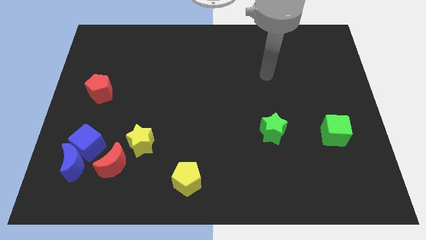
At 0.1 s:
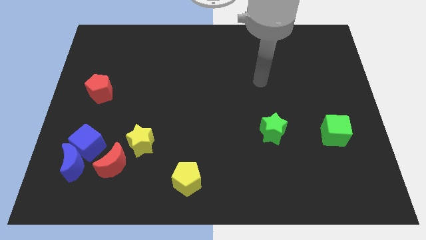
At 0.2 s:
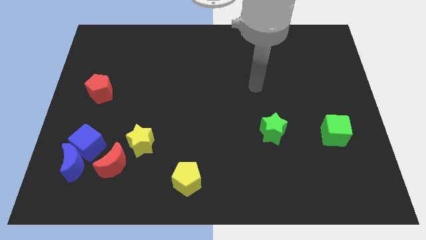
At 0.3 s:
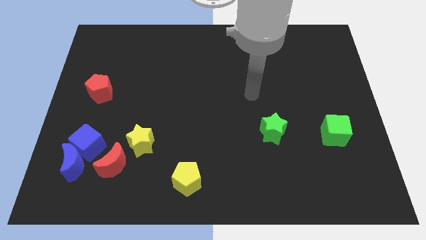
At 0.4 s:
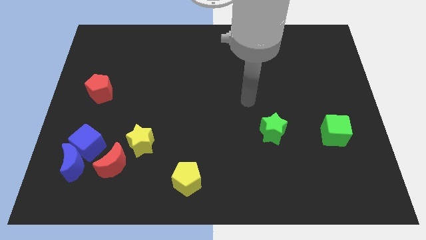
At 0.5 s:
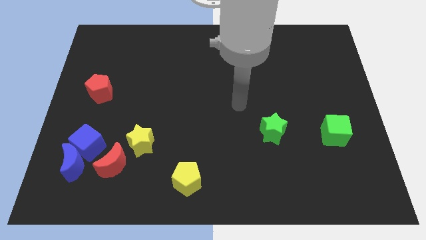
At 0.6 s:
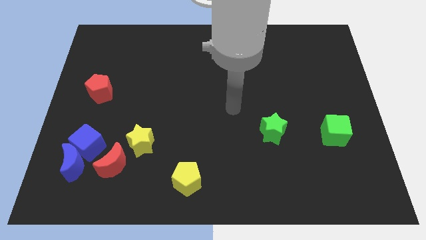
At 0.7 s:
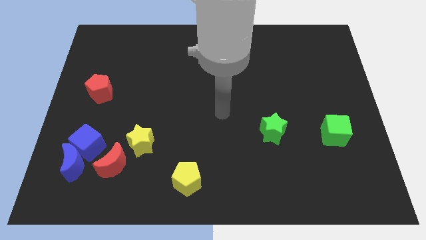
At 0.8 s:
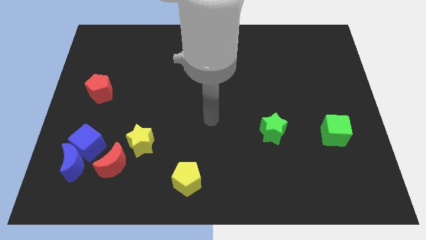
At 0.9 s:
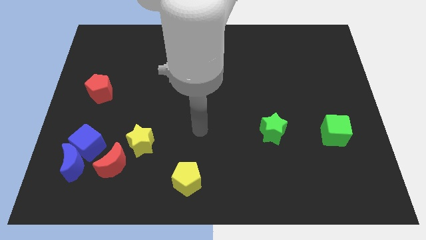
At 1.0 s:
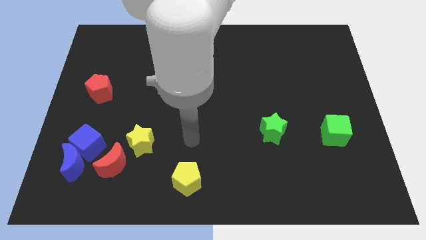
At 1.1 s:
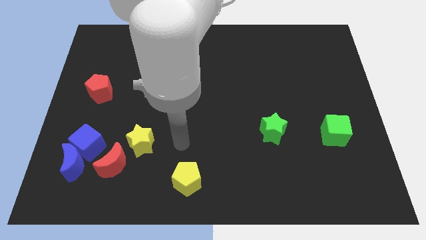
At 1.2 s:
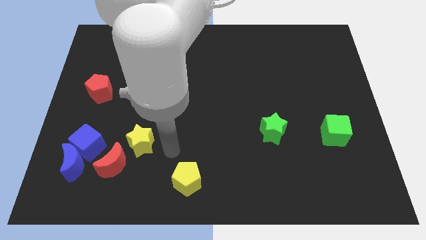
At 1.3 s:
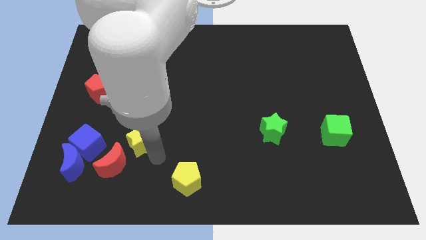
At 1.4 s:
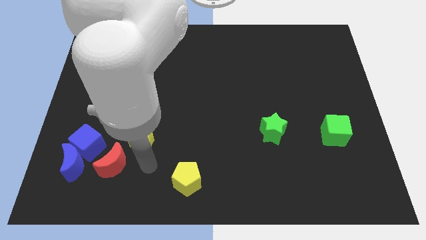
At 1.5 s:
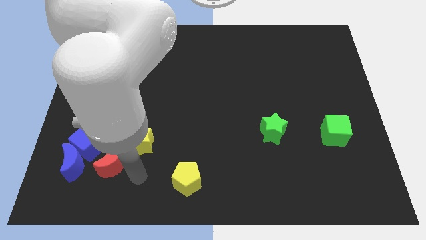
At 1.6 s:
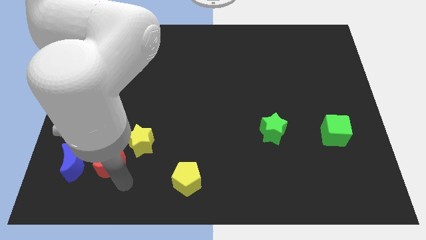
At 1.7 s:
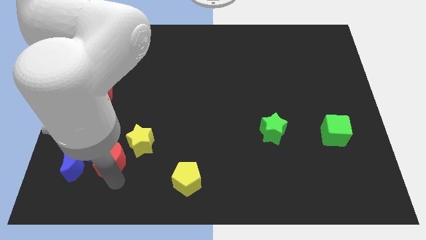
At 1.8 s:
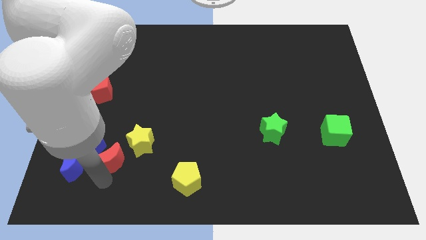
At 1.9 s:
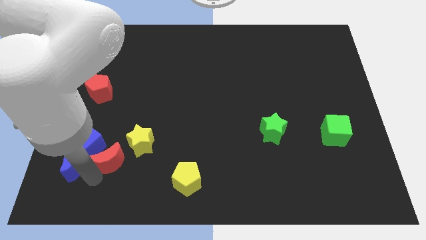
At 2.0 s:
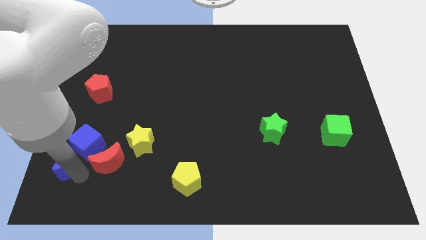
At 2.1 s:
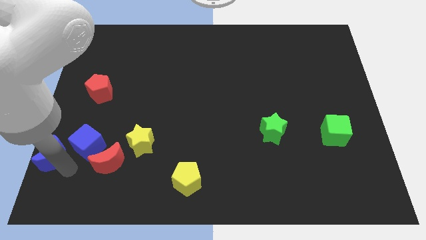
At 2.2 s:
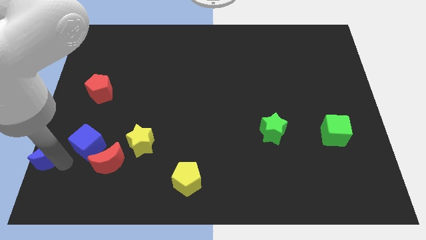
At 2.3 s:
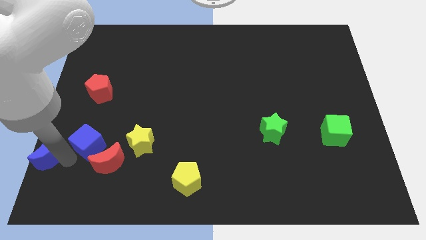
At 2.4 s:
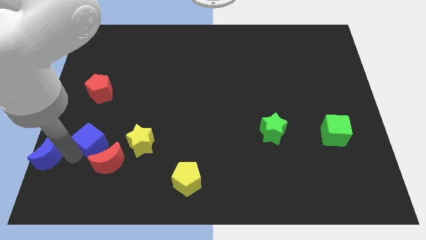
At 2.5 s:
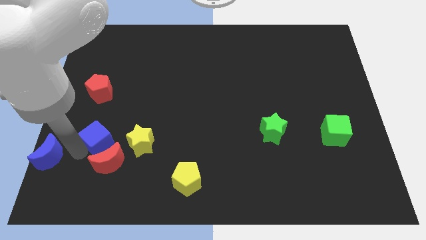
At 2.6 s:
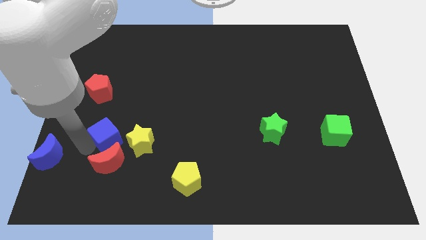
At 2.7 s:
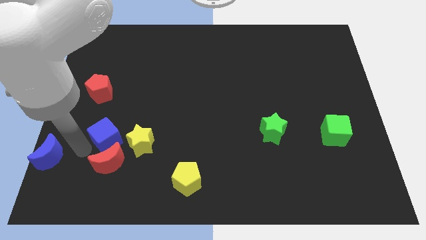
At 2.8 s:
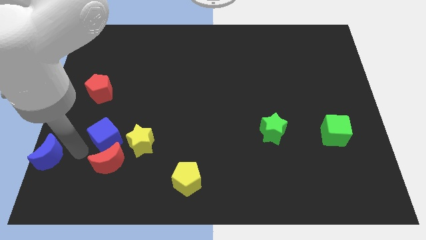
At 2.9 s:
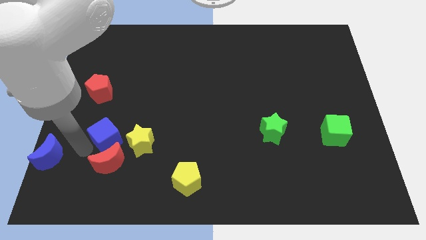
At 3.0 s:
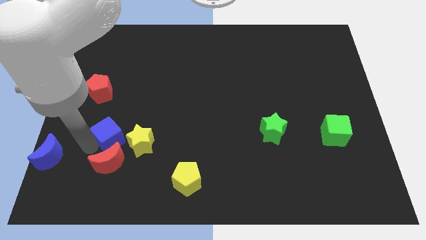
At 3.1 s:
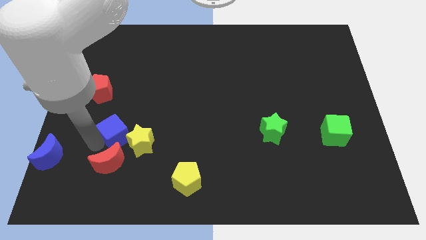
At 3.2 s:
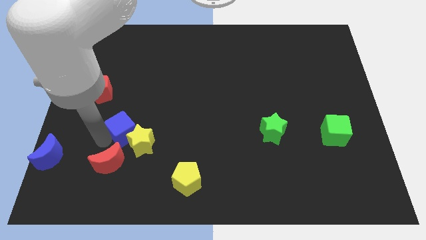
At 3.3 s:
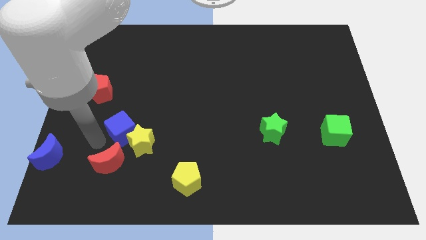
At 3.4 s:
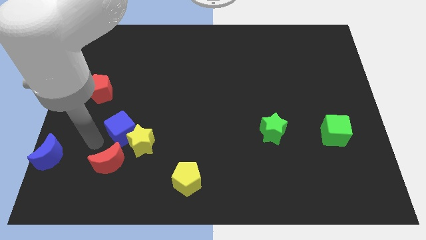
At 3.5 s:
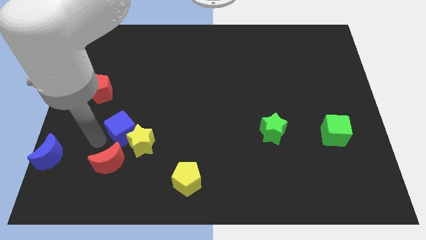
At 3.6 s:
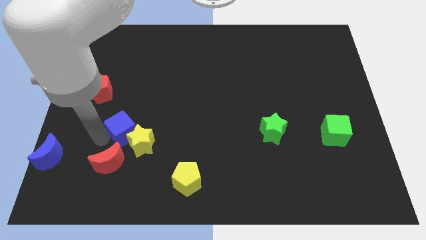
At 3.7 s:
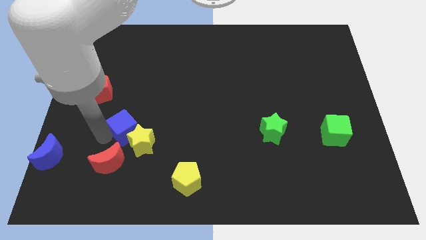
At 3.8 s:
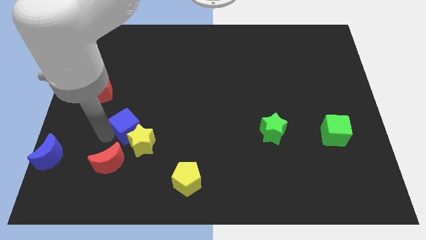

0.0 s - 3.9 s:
slightly slide the blue cube to the right

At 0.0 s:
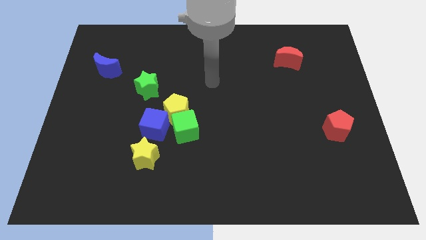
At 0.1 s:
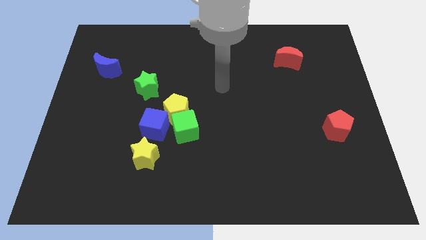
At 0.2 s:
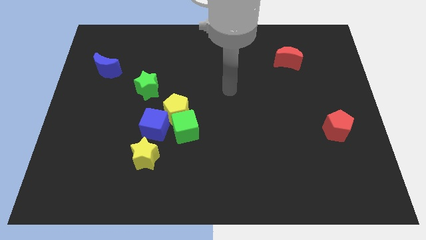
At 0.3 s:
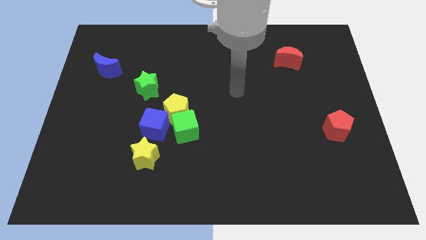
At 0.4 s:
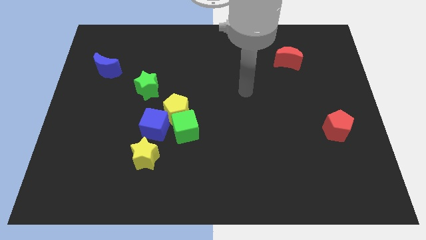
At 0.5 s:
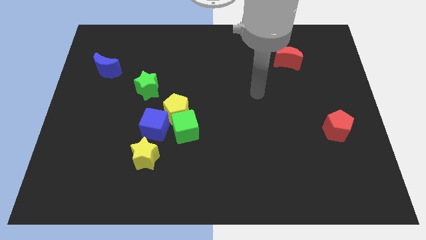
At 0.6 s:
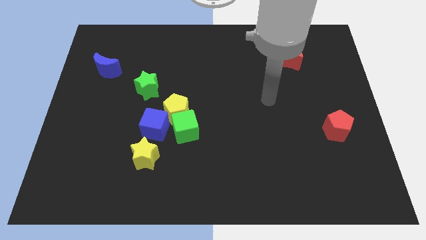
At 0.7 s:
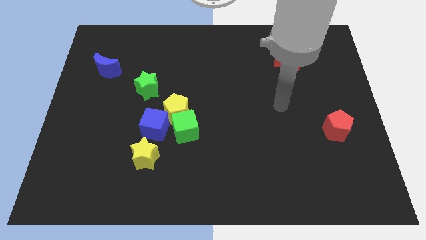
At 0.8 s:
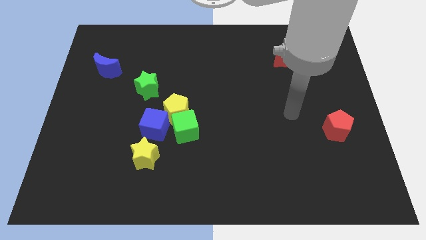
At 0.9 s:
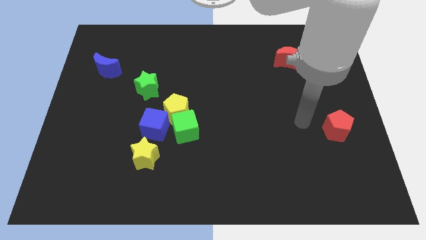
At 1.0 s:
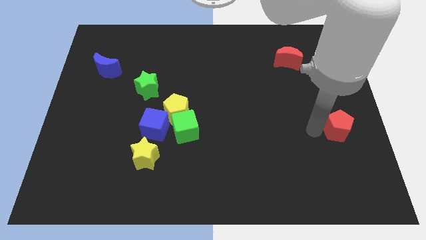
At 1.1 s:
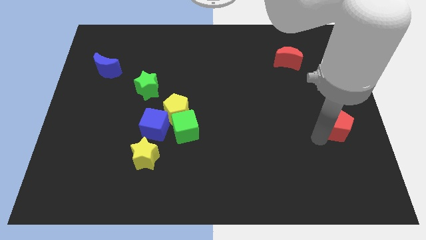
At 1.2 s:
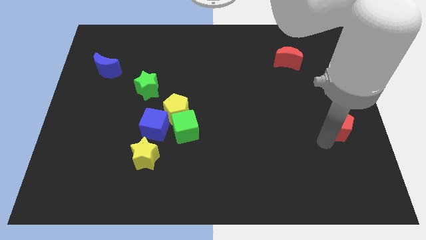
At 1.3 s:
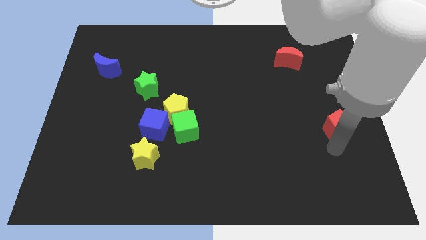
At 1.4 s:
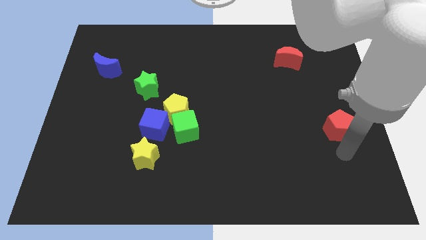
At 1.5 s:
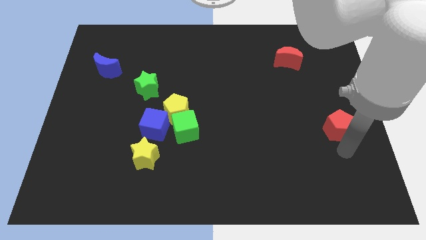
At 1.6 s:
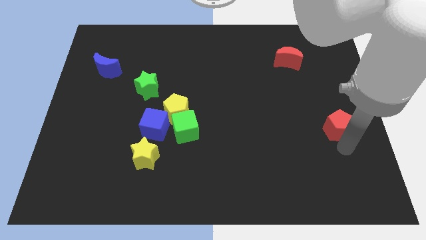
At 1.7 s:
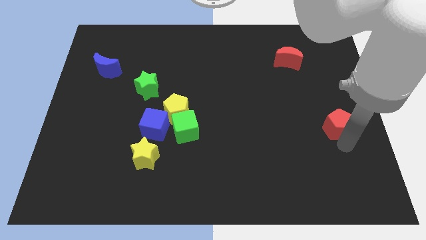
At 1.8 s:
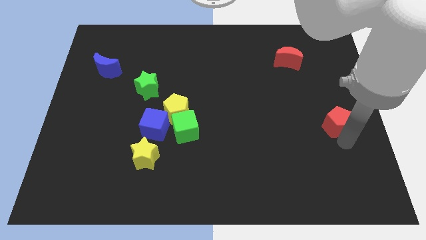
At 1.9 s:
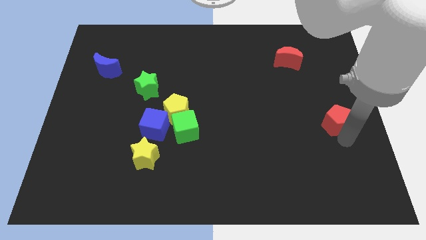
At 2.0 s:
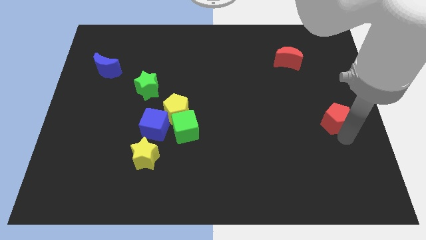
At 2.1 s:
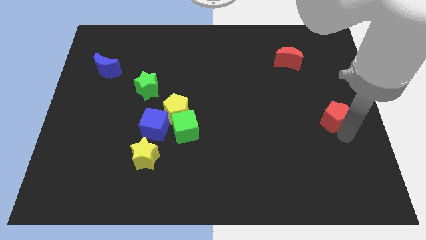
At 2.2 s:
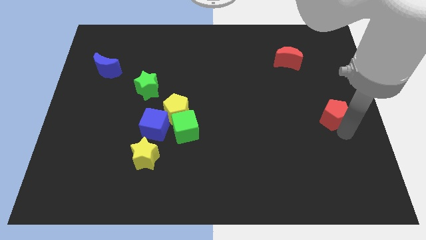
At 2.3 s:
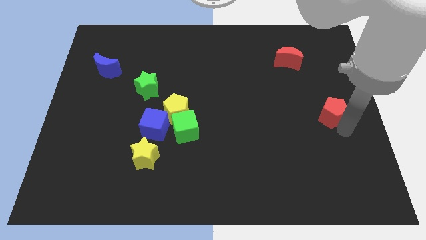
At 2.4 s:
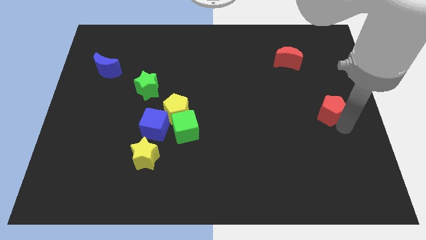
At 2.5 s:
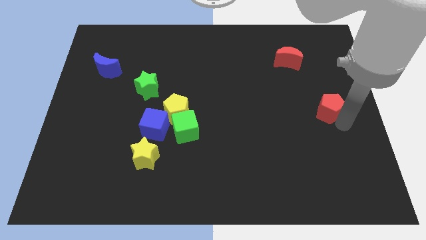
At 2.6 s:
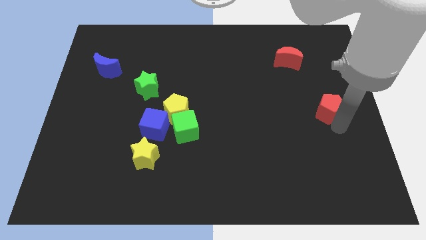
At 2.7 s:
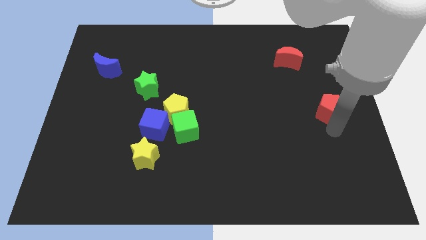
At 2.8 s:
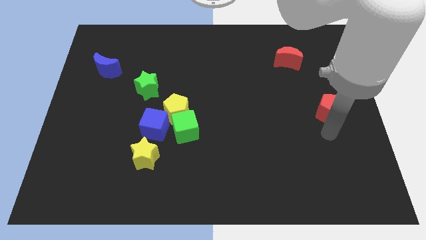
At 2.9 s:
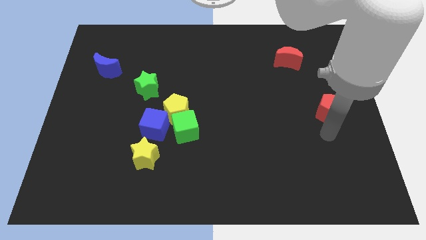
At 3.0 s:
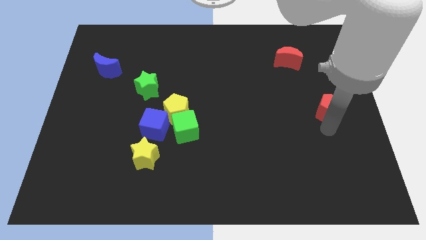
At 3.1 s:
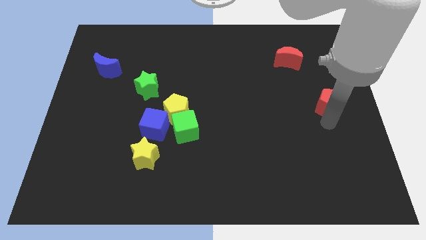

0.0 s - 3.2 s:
slide the red pentagon somewhat upwards

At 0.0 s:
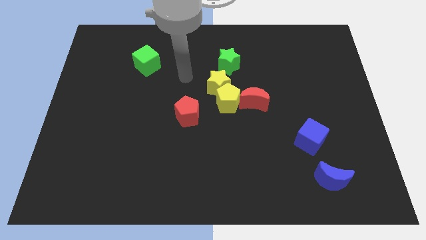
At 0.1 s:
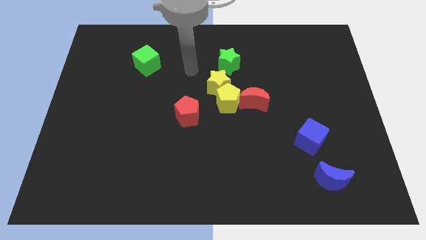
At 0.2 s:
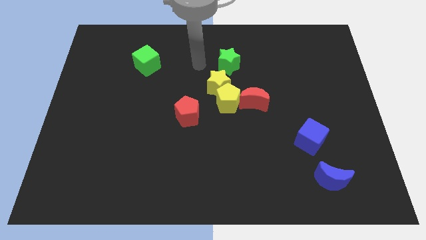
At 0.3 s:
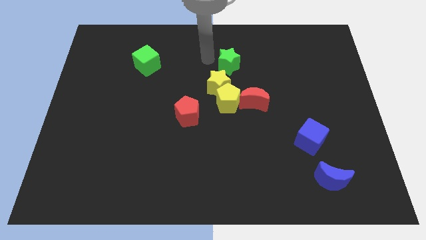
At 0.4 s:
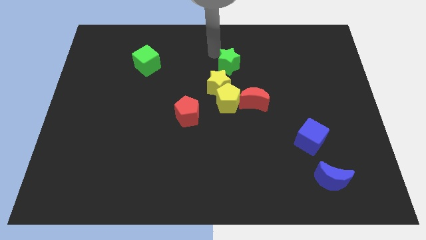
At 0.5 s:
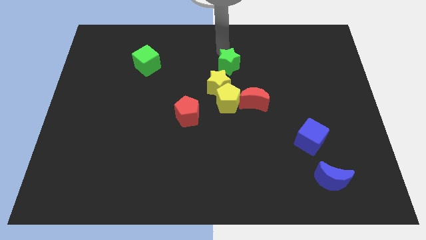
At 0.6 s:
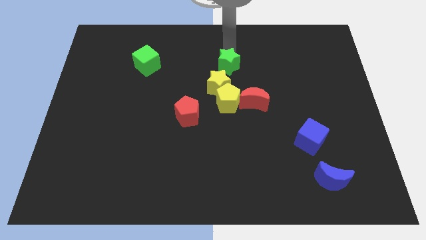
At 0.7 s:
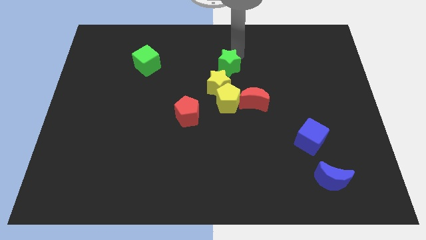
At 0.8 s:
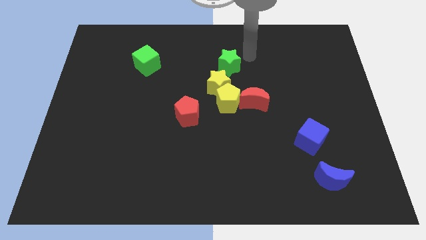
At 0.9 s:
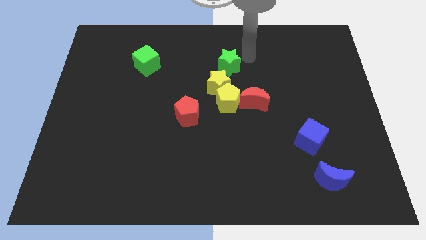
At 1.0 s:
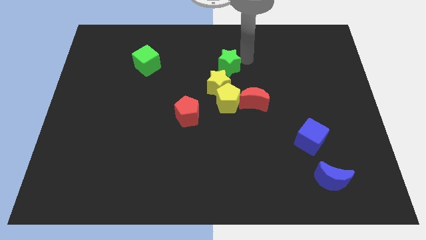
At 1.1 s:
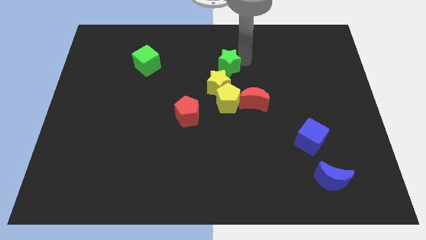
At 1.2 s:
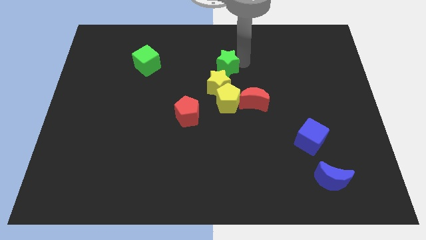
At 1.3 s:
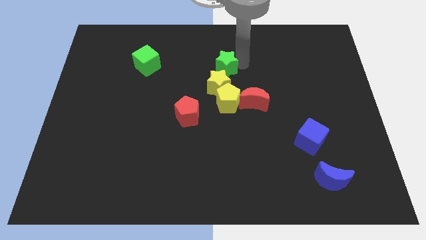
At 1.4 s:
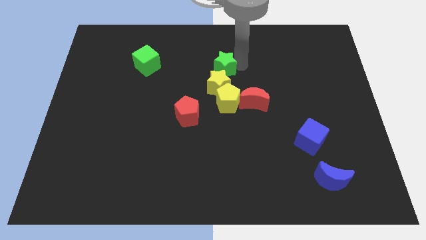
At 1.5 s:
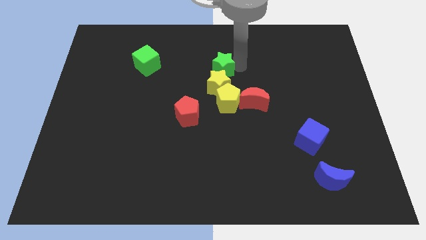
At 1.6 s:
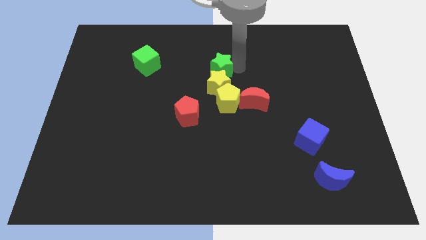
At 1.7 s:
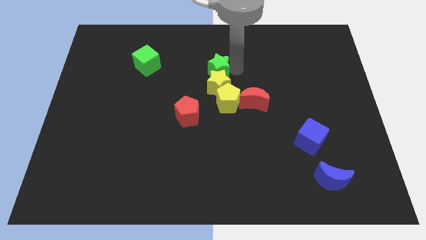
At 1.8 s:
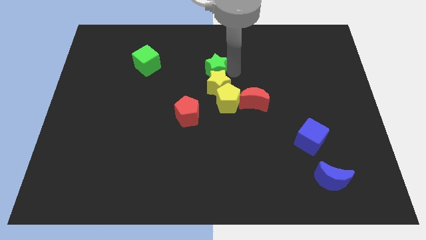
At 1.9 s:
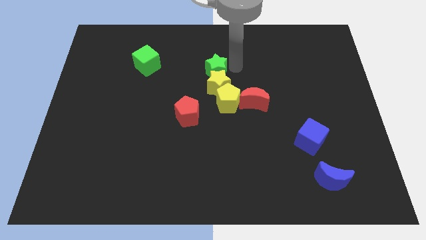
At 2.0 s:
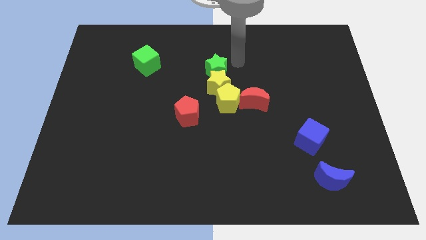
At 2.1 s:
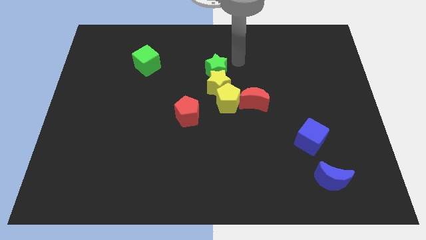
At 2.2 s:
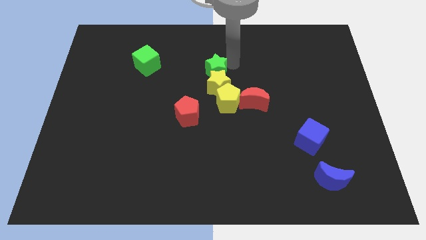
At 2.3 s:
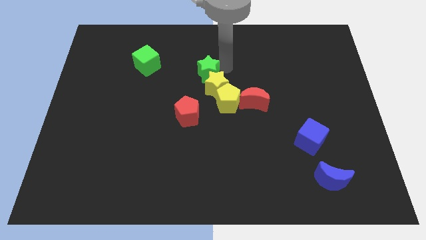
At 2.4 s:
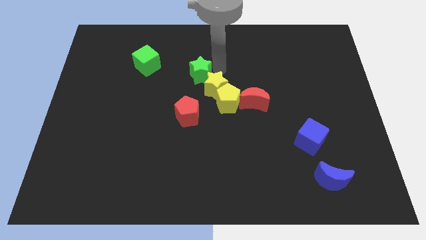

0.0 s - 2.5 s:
move the green star a little downwards and then left
